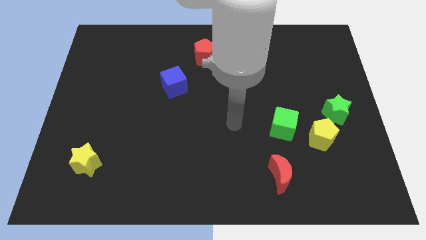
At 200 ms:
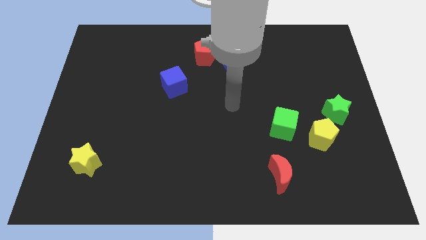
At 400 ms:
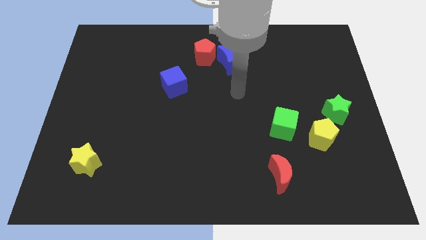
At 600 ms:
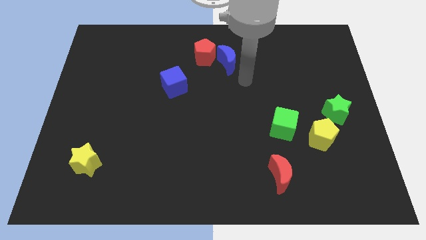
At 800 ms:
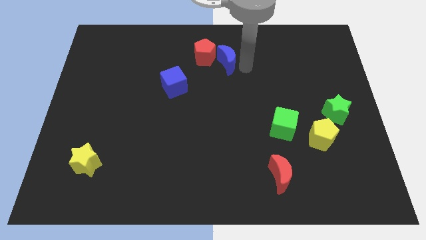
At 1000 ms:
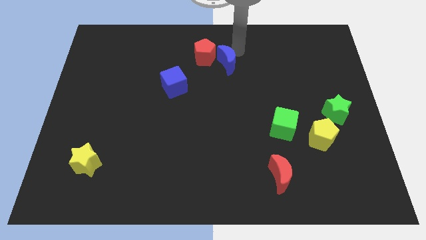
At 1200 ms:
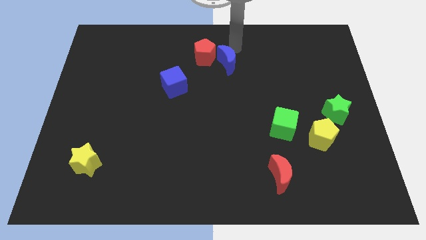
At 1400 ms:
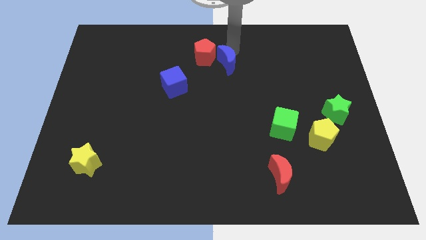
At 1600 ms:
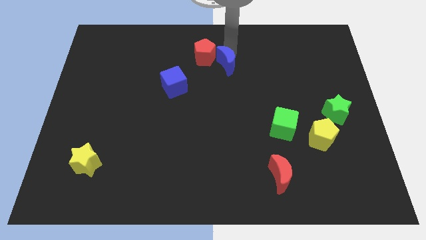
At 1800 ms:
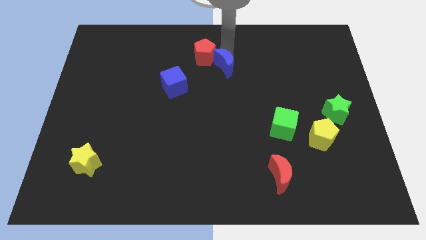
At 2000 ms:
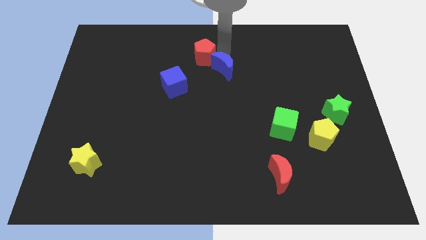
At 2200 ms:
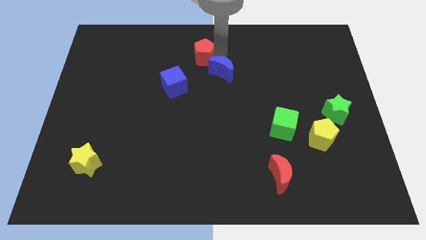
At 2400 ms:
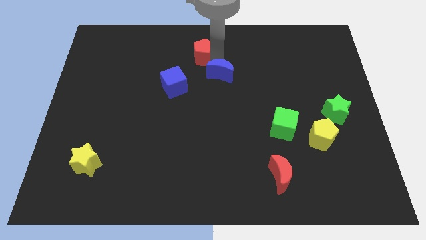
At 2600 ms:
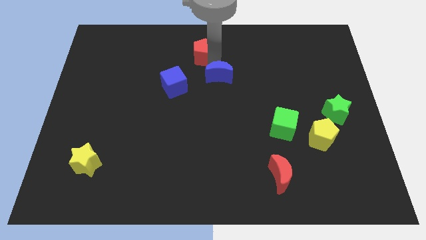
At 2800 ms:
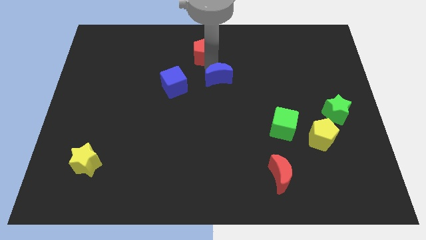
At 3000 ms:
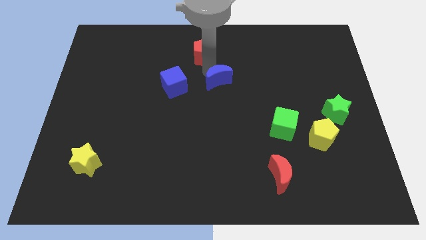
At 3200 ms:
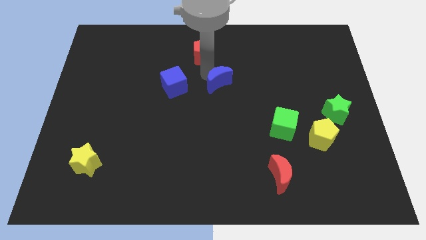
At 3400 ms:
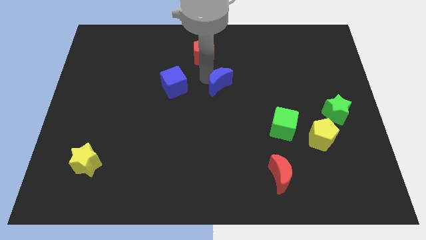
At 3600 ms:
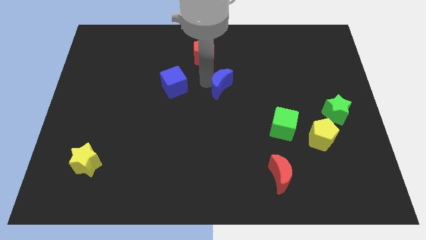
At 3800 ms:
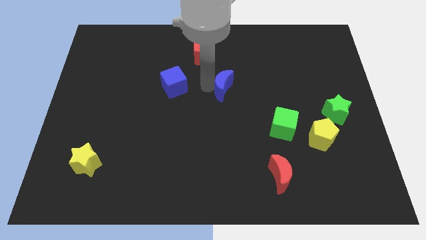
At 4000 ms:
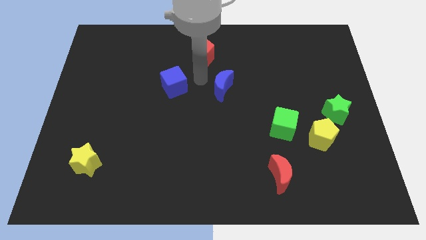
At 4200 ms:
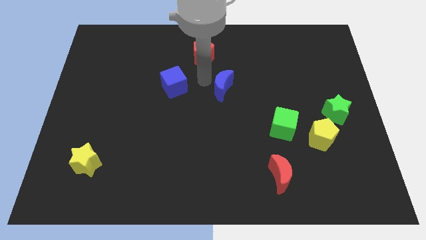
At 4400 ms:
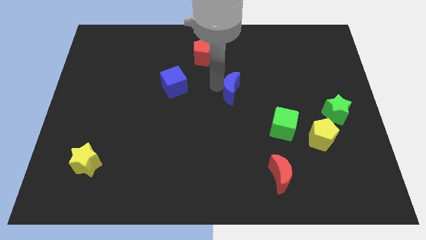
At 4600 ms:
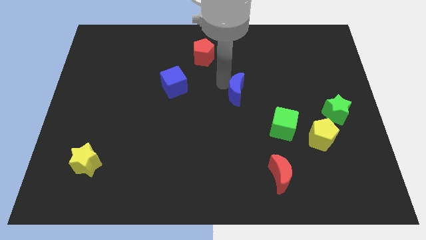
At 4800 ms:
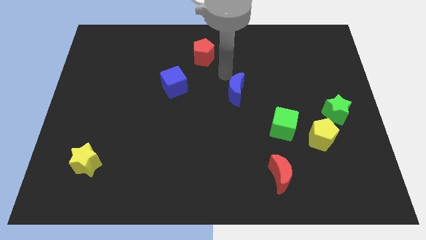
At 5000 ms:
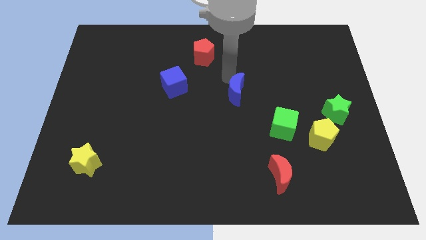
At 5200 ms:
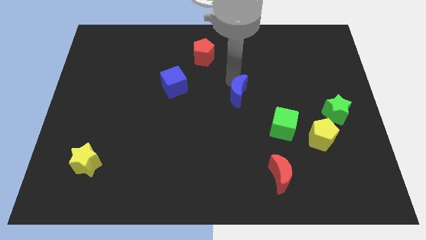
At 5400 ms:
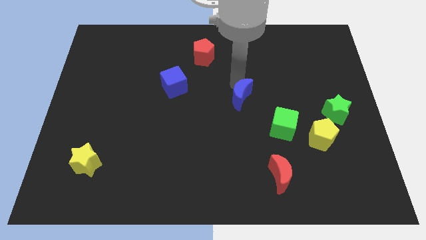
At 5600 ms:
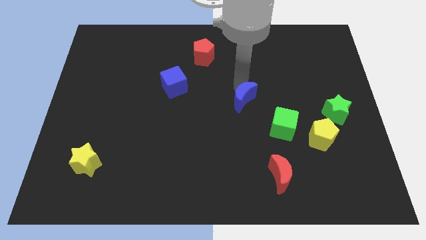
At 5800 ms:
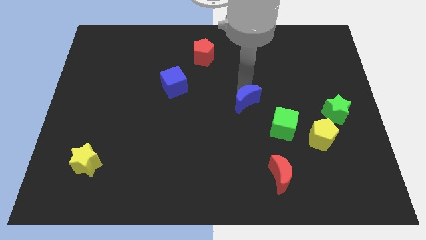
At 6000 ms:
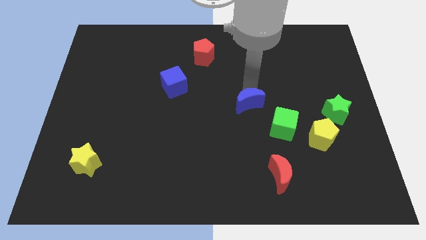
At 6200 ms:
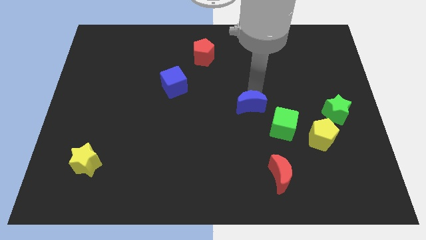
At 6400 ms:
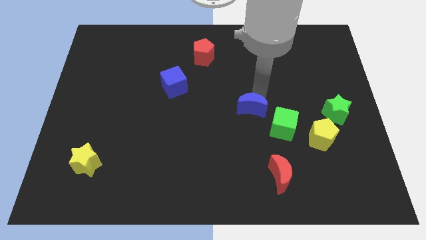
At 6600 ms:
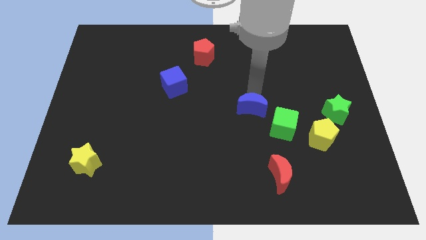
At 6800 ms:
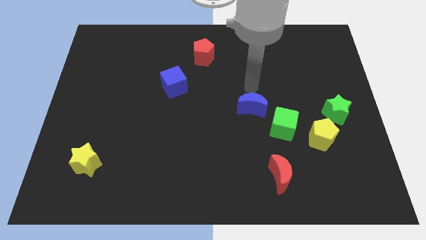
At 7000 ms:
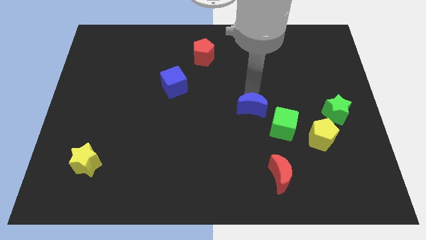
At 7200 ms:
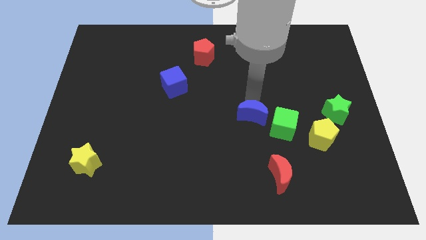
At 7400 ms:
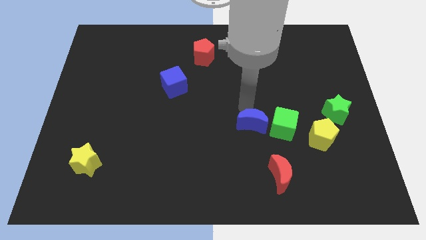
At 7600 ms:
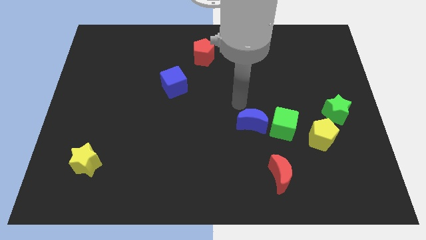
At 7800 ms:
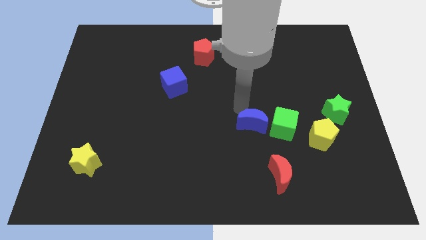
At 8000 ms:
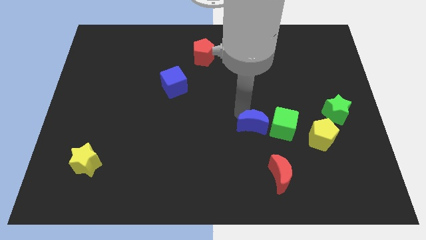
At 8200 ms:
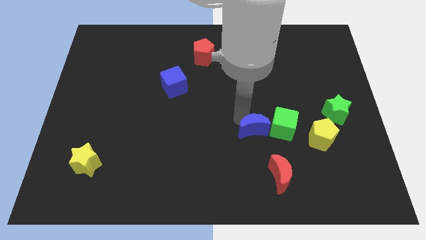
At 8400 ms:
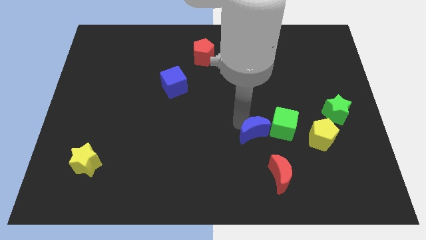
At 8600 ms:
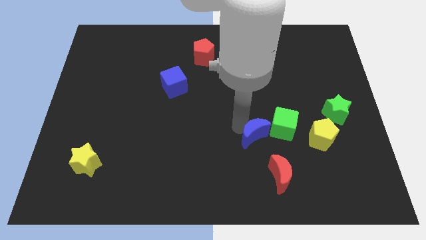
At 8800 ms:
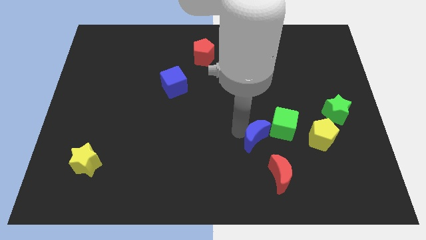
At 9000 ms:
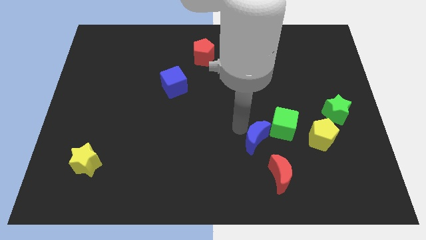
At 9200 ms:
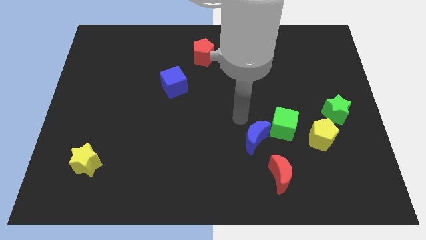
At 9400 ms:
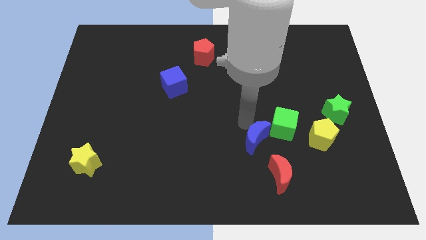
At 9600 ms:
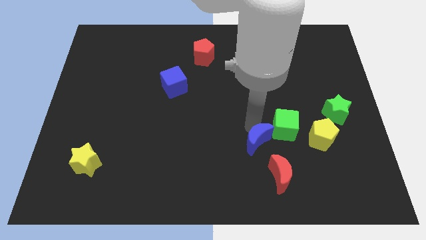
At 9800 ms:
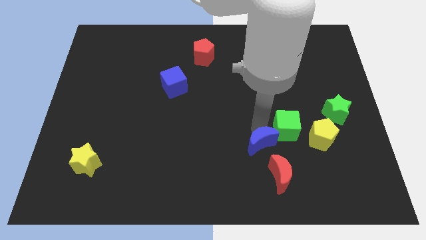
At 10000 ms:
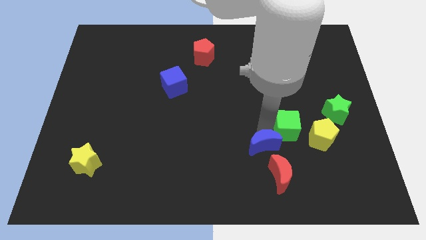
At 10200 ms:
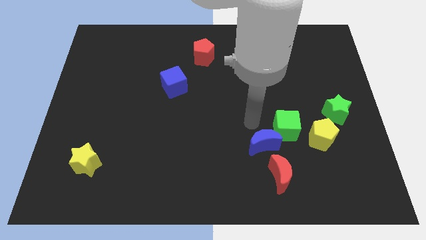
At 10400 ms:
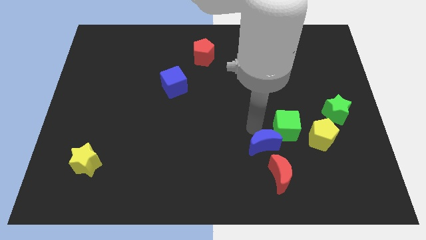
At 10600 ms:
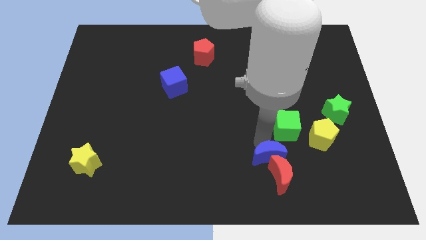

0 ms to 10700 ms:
slide the blue moon towards the red moon

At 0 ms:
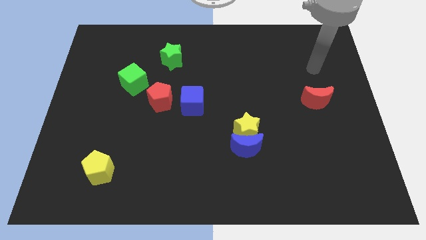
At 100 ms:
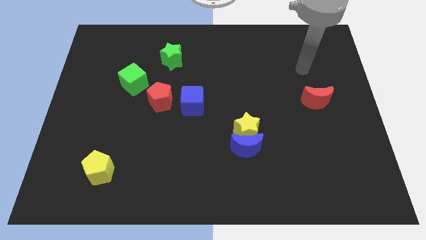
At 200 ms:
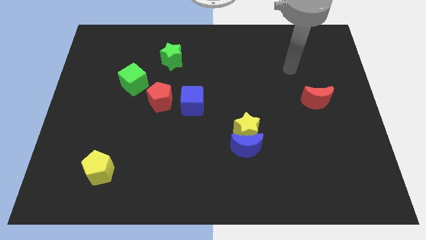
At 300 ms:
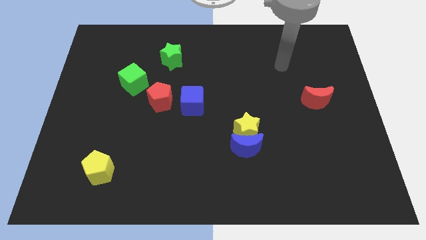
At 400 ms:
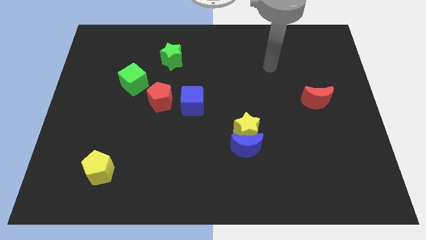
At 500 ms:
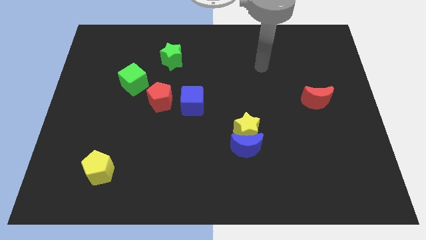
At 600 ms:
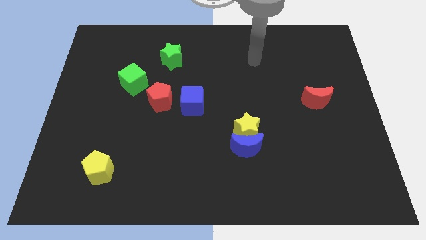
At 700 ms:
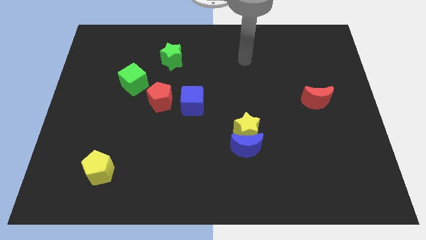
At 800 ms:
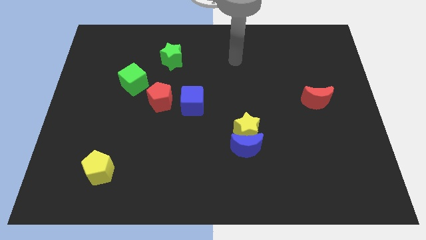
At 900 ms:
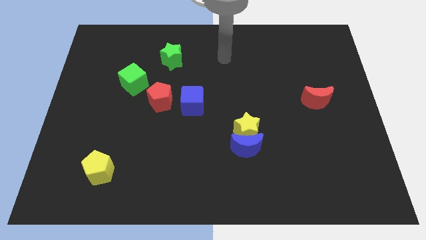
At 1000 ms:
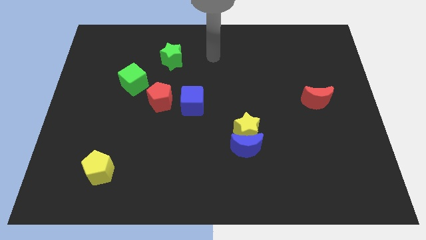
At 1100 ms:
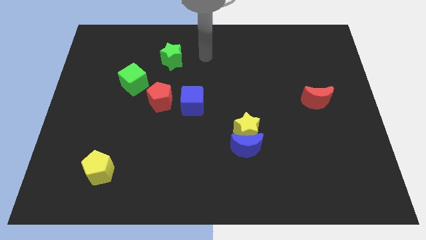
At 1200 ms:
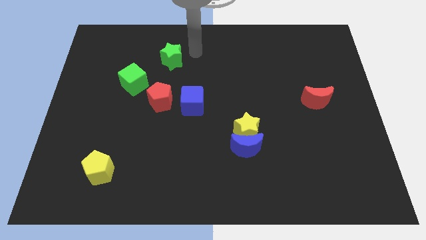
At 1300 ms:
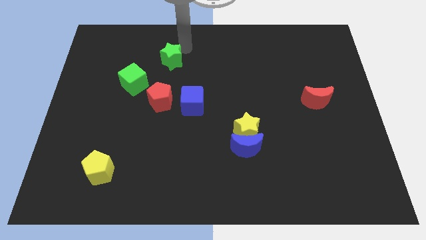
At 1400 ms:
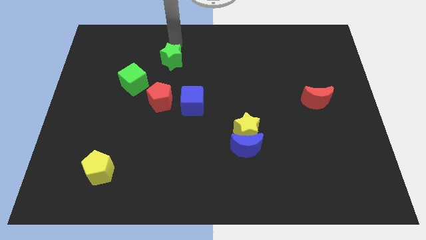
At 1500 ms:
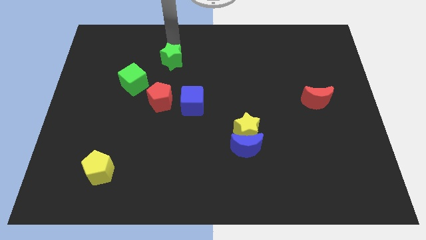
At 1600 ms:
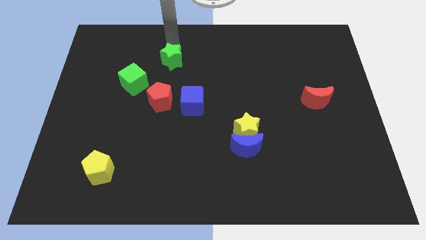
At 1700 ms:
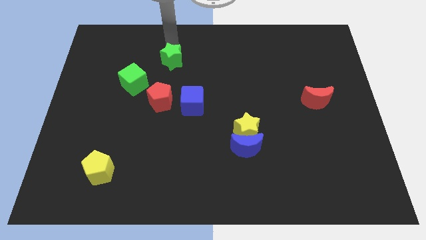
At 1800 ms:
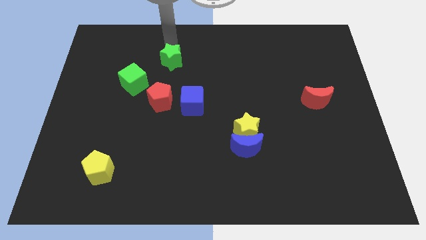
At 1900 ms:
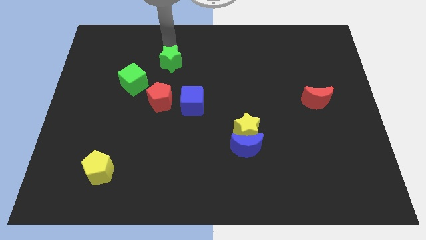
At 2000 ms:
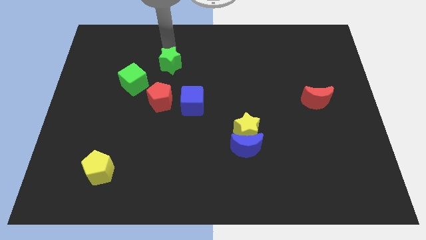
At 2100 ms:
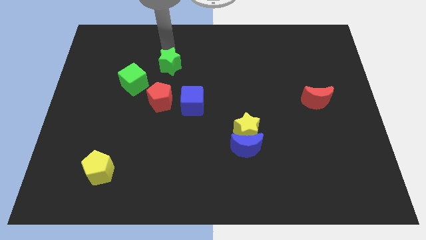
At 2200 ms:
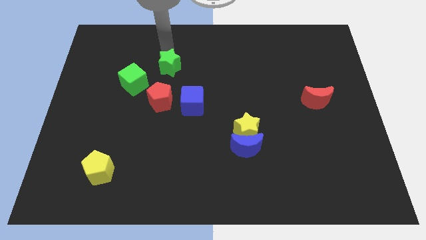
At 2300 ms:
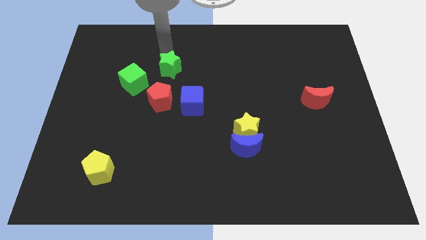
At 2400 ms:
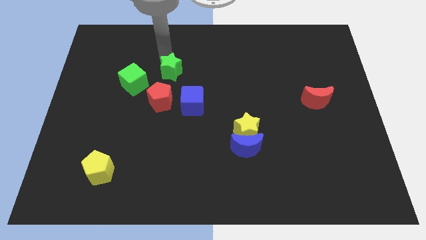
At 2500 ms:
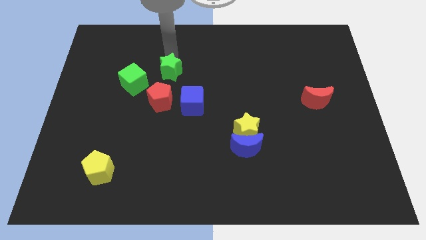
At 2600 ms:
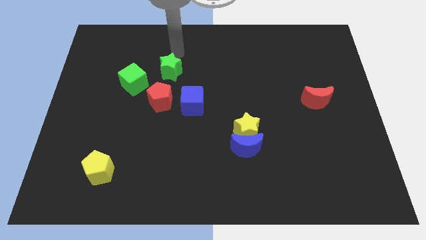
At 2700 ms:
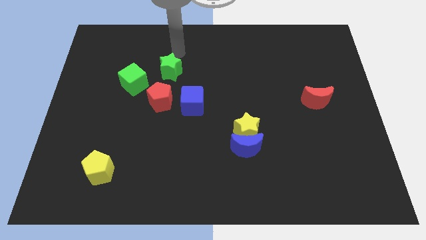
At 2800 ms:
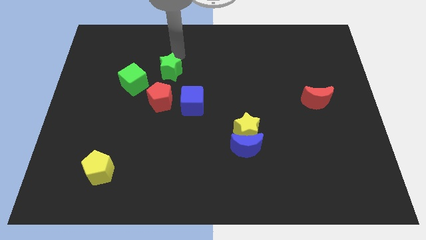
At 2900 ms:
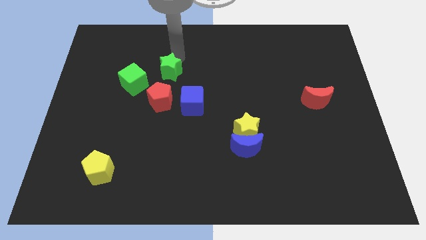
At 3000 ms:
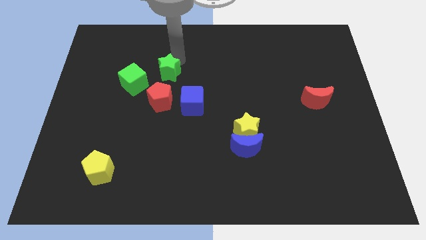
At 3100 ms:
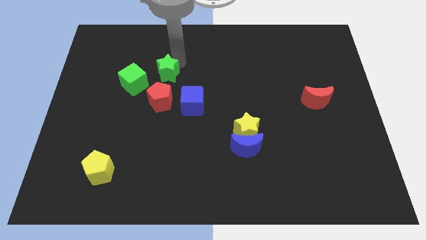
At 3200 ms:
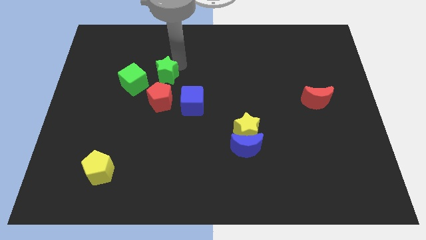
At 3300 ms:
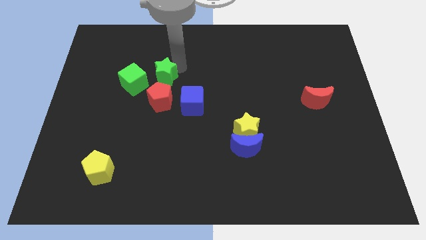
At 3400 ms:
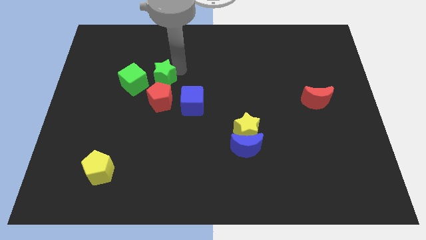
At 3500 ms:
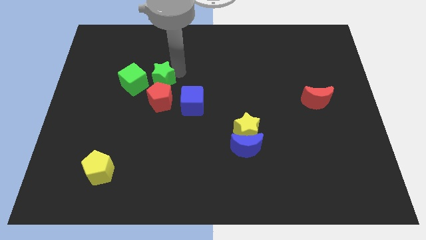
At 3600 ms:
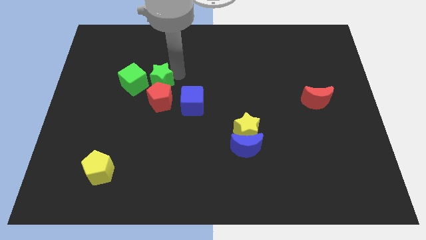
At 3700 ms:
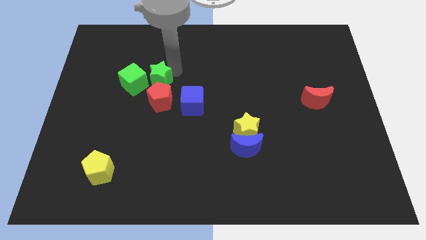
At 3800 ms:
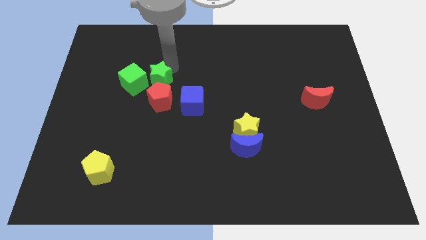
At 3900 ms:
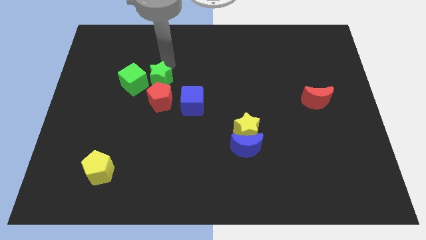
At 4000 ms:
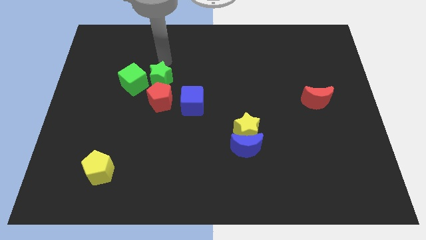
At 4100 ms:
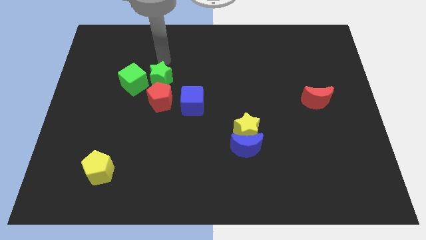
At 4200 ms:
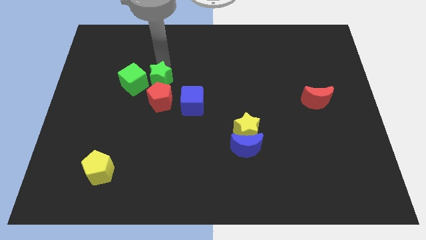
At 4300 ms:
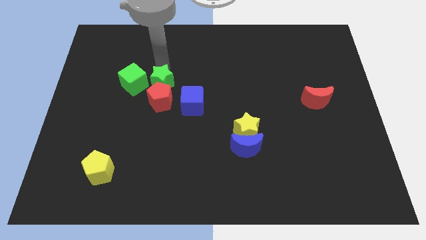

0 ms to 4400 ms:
slide the green star to the red pentagon
